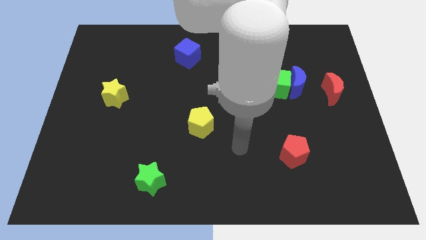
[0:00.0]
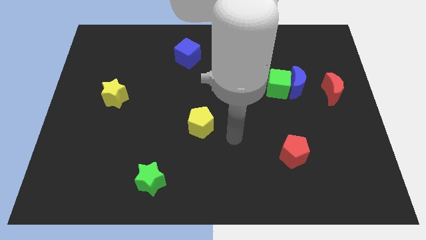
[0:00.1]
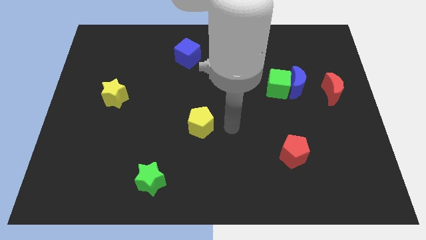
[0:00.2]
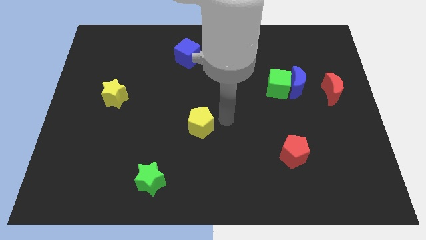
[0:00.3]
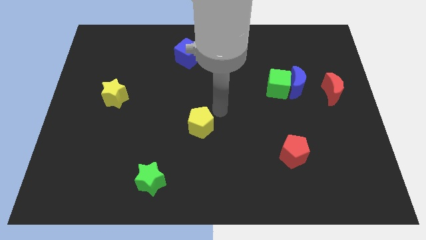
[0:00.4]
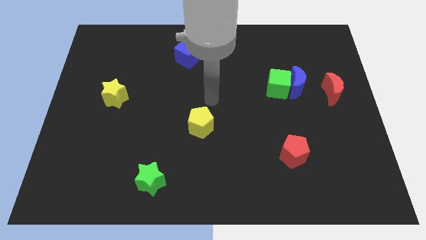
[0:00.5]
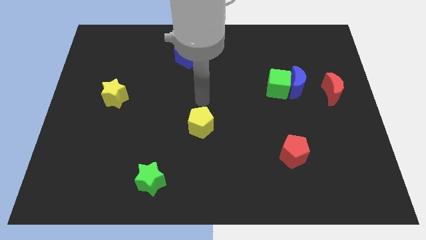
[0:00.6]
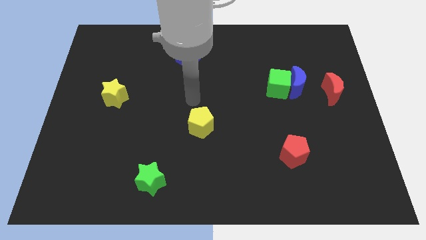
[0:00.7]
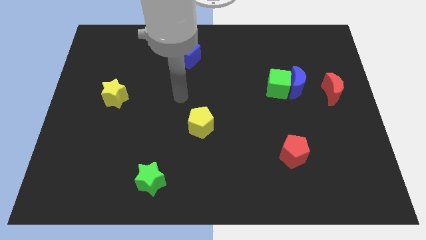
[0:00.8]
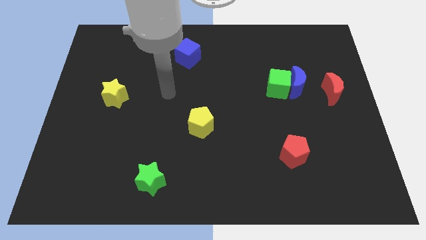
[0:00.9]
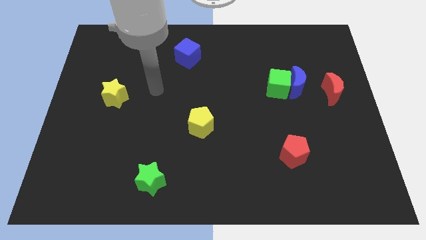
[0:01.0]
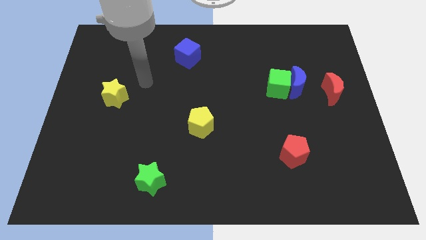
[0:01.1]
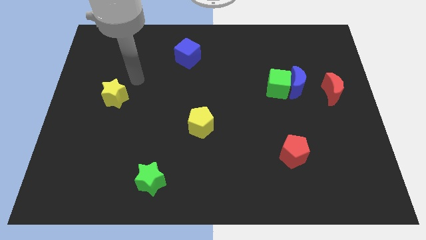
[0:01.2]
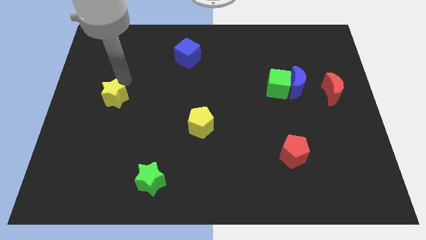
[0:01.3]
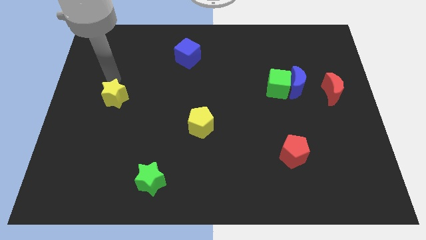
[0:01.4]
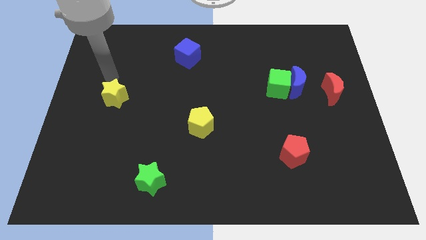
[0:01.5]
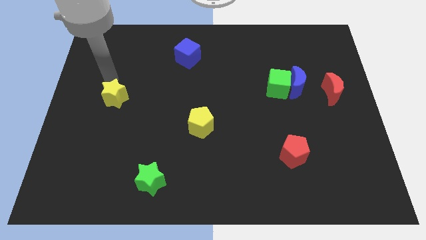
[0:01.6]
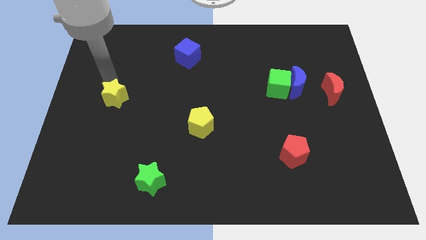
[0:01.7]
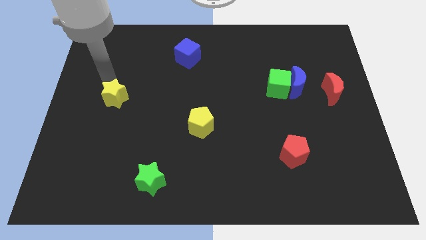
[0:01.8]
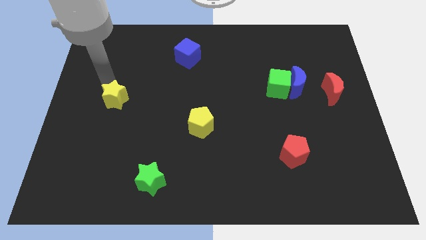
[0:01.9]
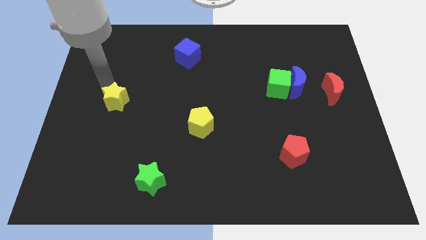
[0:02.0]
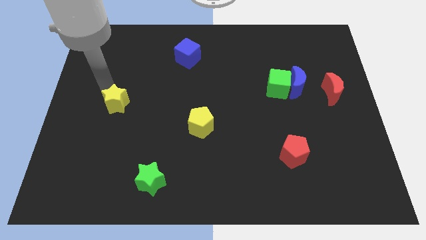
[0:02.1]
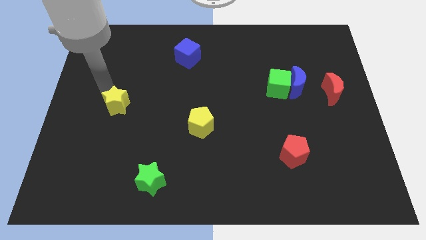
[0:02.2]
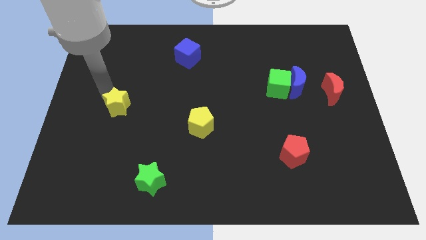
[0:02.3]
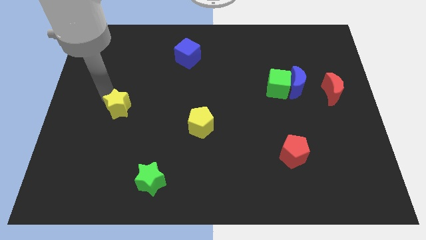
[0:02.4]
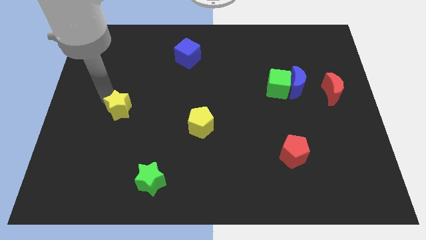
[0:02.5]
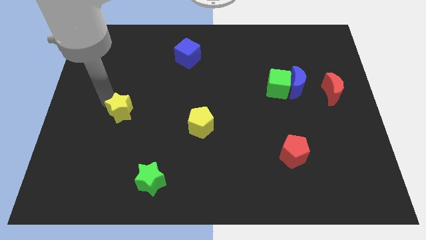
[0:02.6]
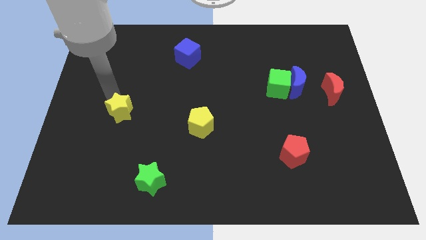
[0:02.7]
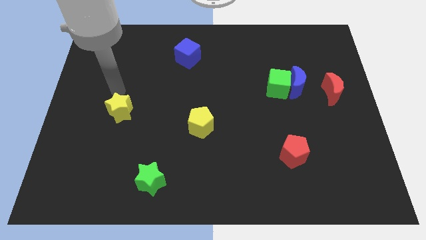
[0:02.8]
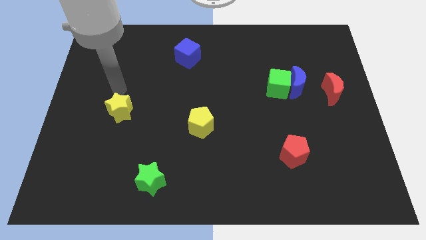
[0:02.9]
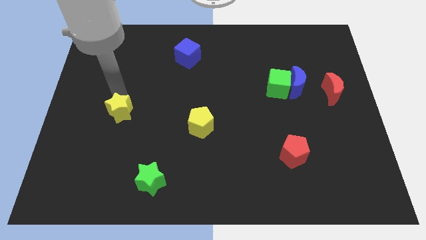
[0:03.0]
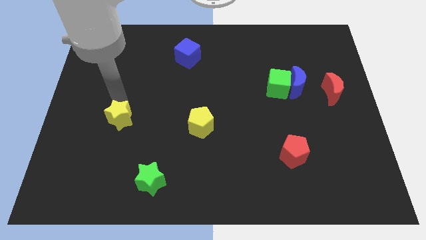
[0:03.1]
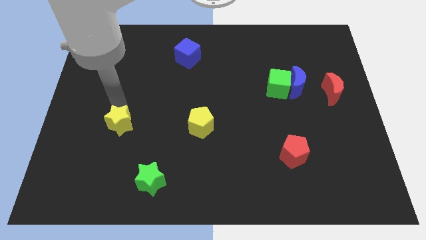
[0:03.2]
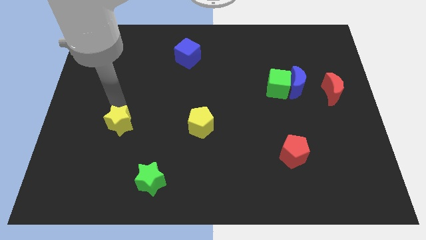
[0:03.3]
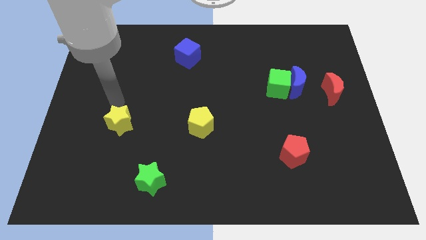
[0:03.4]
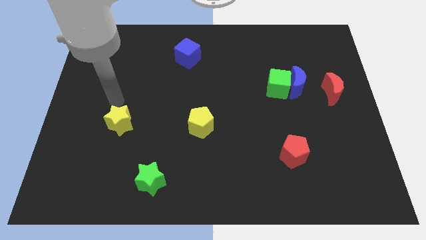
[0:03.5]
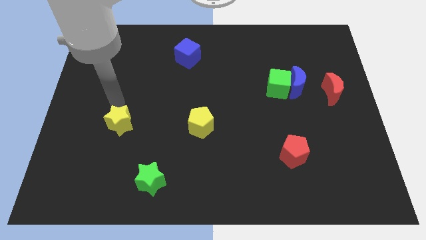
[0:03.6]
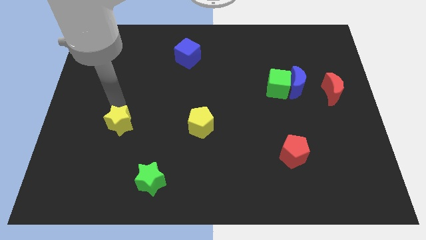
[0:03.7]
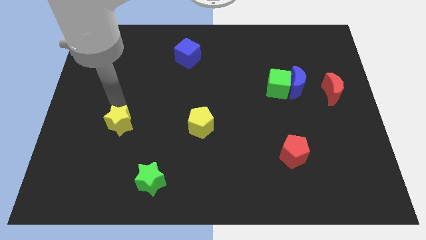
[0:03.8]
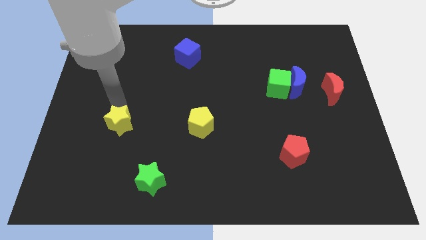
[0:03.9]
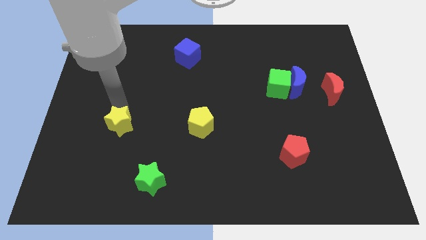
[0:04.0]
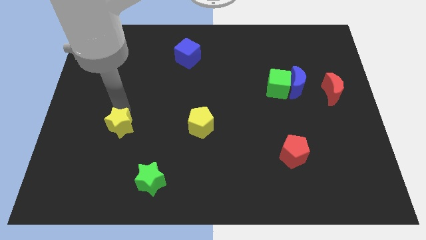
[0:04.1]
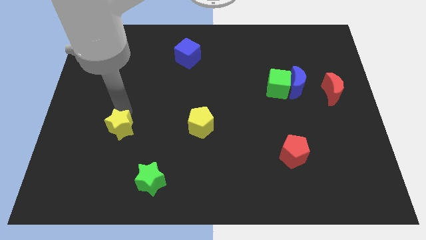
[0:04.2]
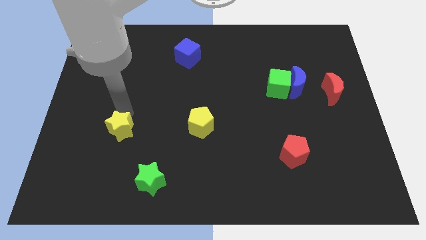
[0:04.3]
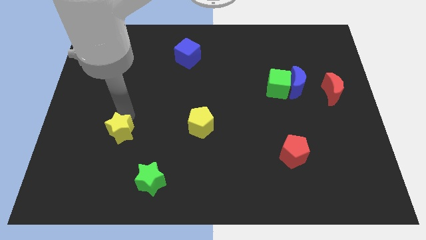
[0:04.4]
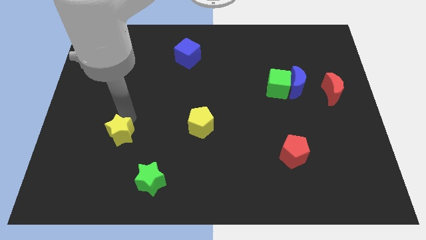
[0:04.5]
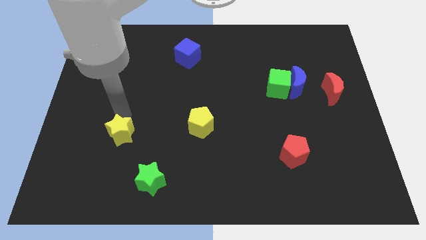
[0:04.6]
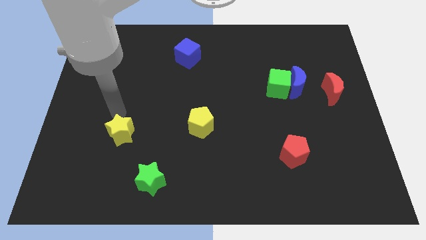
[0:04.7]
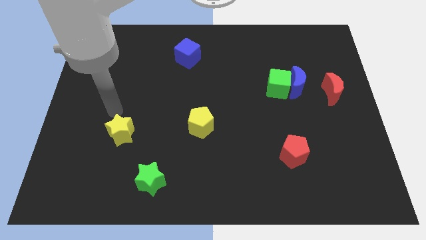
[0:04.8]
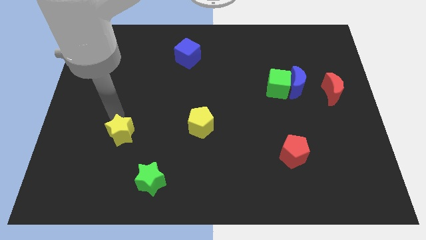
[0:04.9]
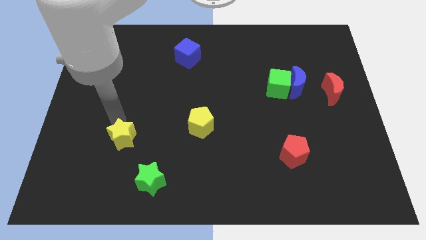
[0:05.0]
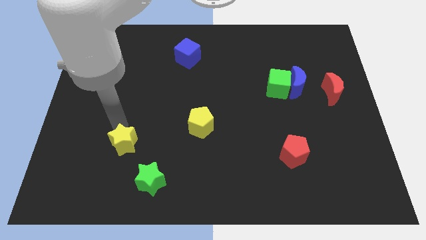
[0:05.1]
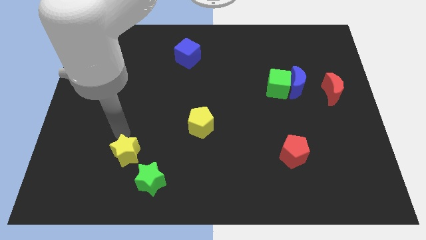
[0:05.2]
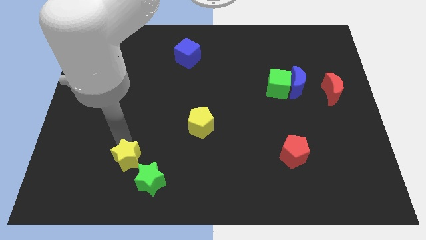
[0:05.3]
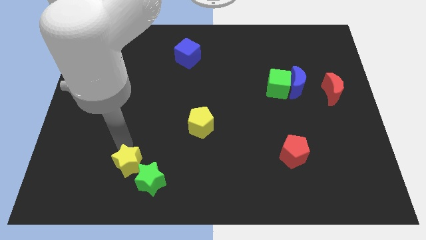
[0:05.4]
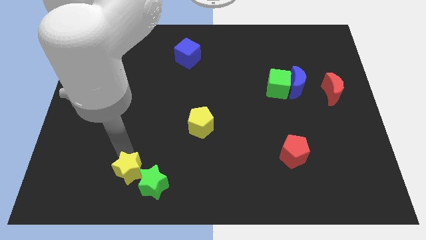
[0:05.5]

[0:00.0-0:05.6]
move the yellow star close to the green star

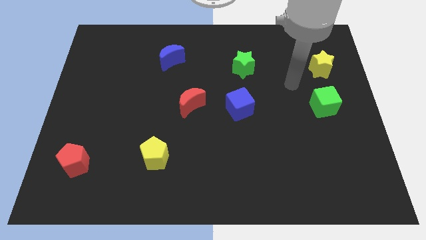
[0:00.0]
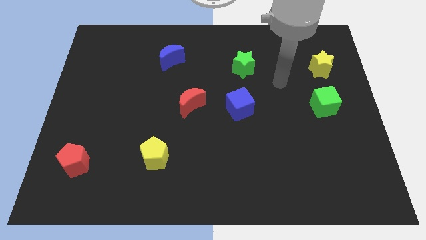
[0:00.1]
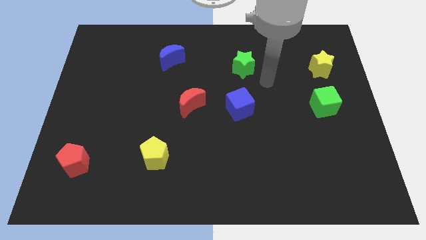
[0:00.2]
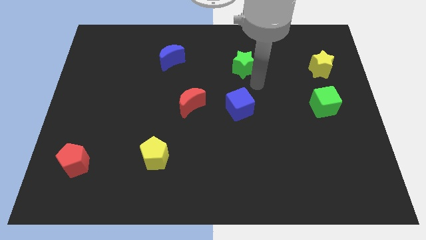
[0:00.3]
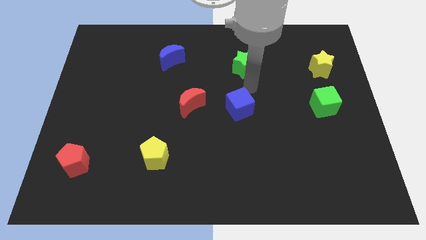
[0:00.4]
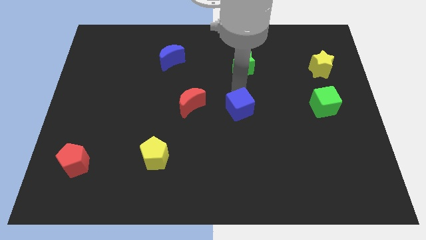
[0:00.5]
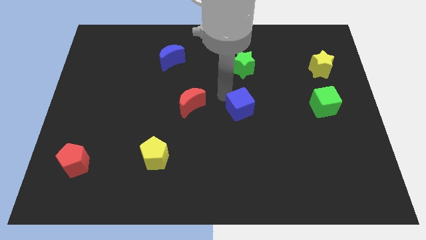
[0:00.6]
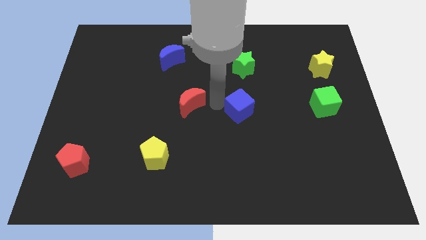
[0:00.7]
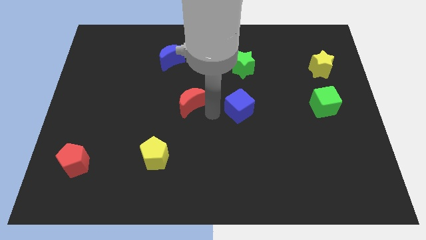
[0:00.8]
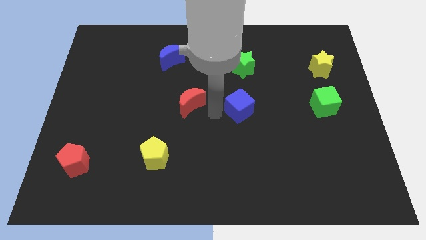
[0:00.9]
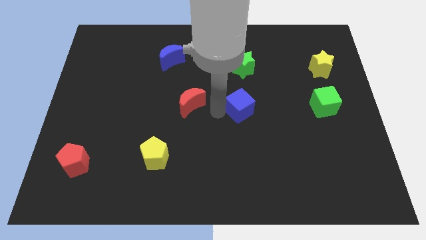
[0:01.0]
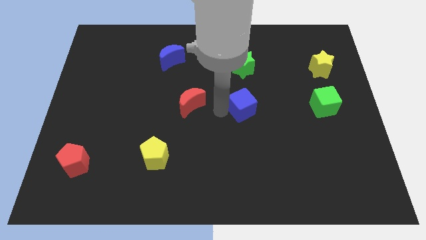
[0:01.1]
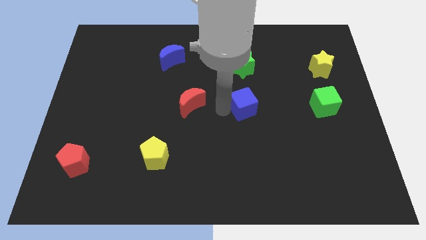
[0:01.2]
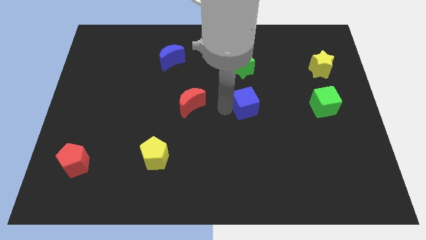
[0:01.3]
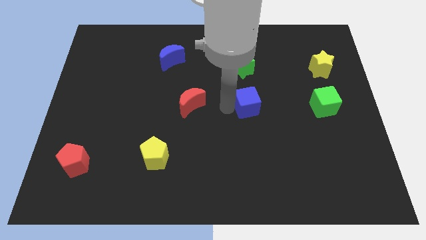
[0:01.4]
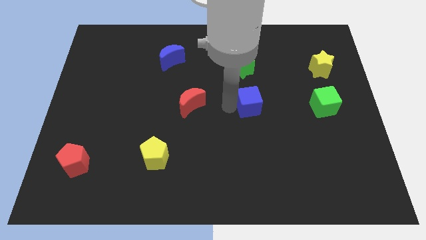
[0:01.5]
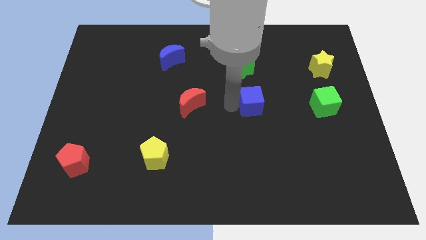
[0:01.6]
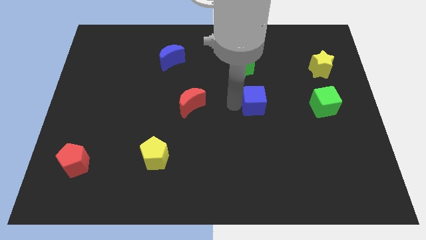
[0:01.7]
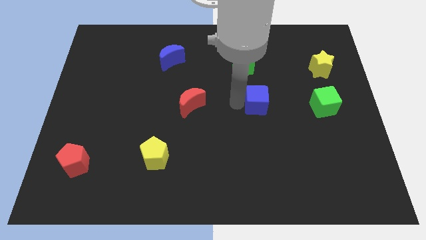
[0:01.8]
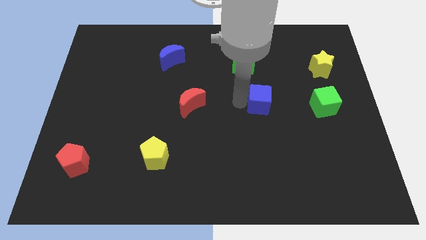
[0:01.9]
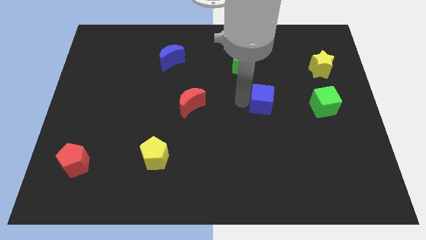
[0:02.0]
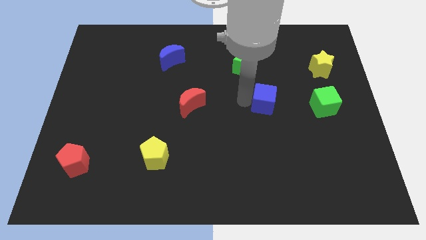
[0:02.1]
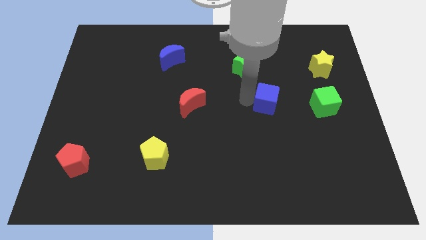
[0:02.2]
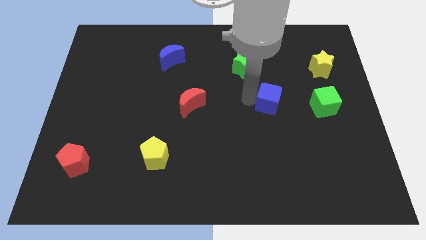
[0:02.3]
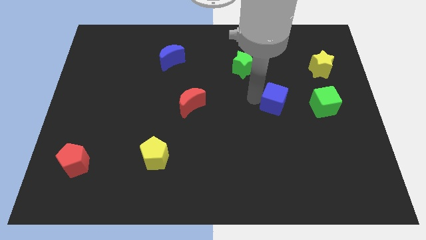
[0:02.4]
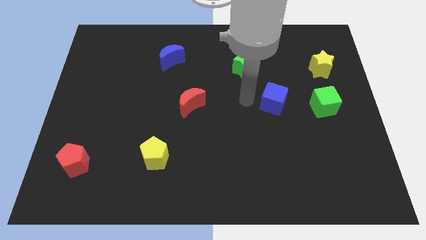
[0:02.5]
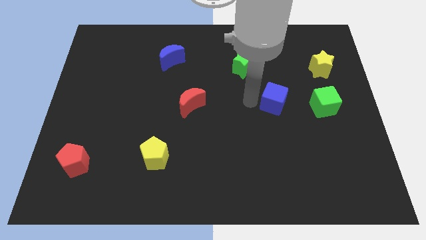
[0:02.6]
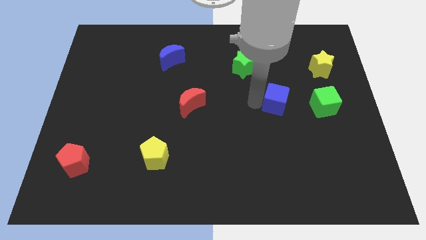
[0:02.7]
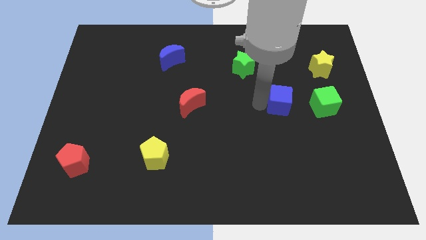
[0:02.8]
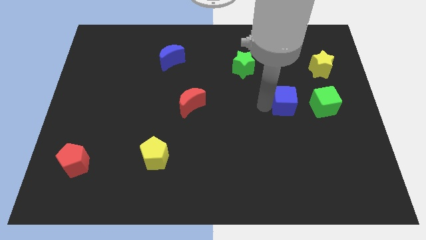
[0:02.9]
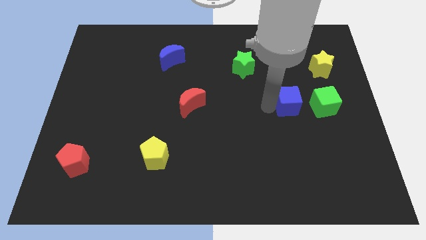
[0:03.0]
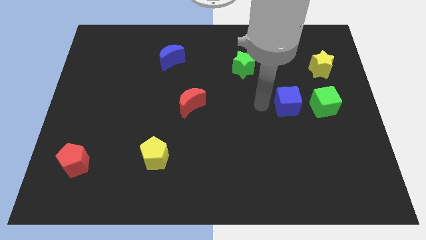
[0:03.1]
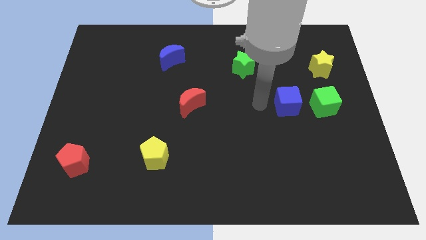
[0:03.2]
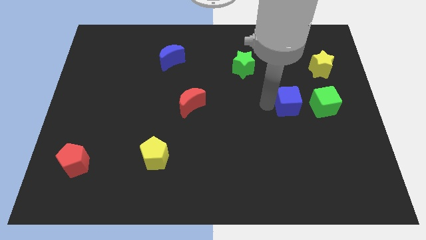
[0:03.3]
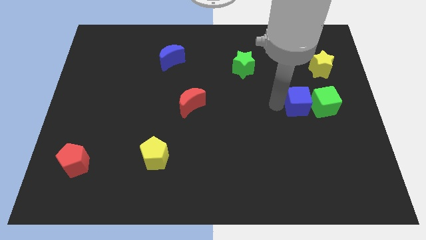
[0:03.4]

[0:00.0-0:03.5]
put the blue cube to the green cube
